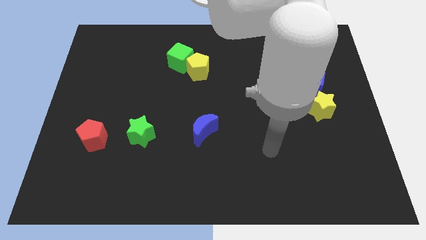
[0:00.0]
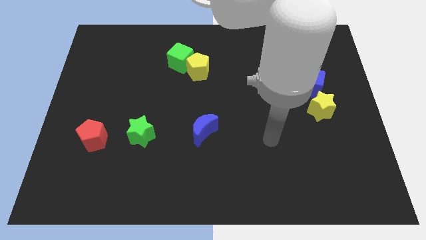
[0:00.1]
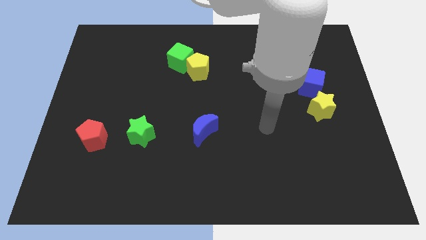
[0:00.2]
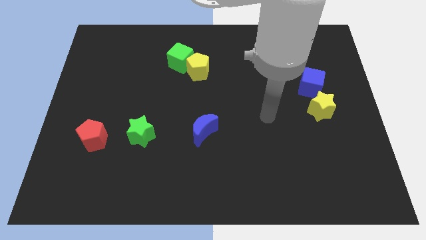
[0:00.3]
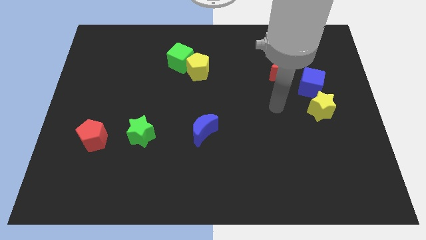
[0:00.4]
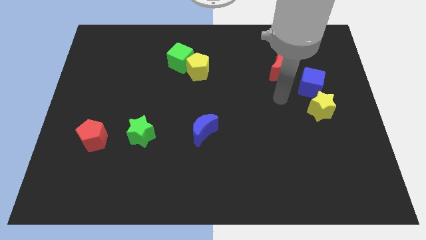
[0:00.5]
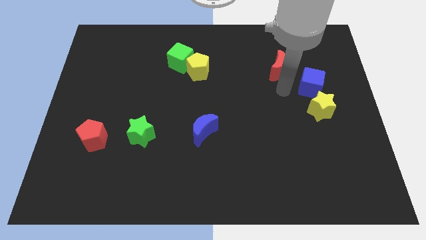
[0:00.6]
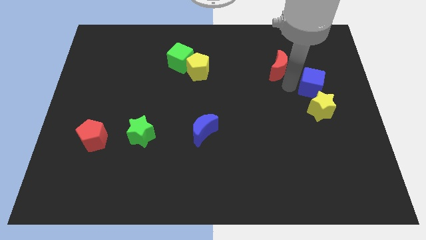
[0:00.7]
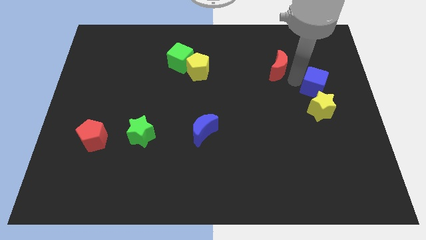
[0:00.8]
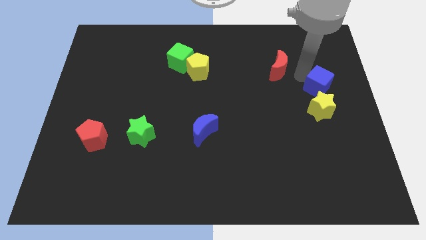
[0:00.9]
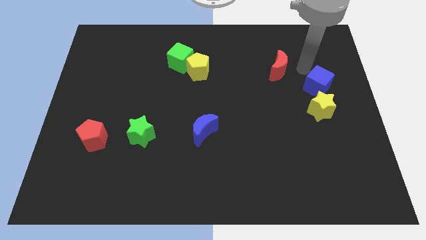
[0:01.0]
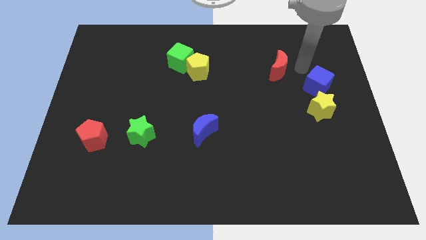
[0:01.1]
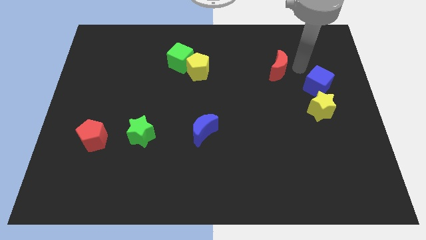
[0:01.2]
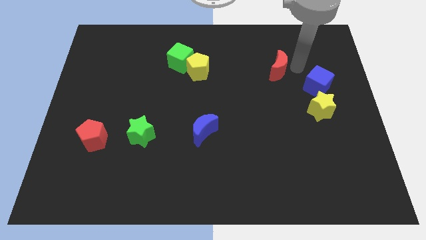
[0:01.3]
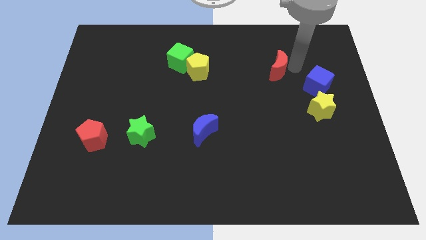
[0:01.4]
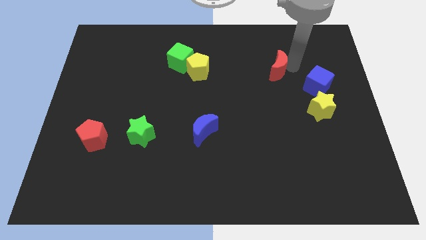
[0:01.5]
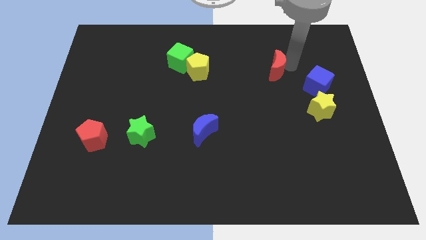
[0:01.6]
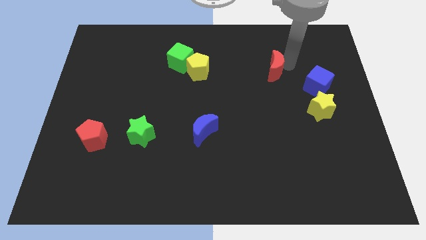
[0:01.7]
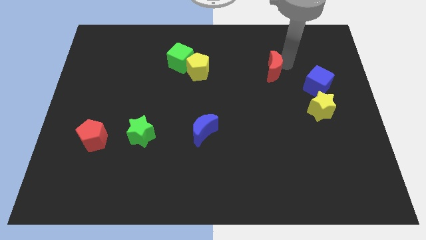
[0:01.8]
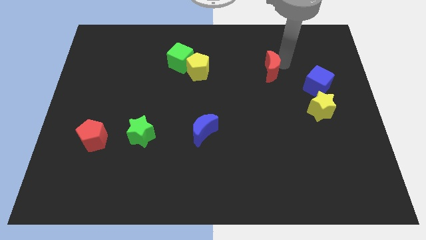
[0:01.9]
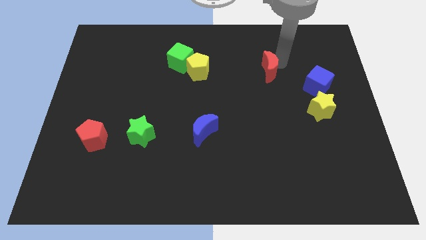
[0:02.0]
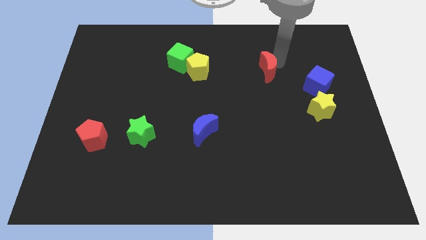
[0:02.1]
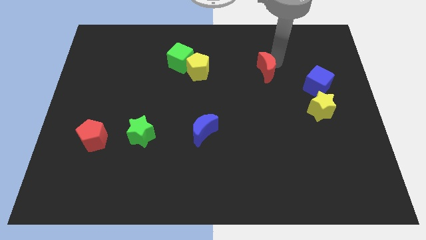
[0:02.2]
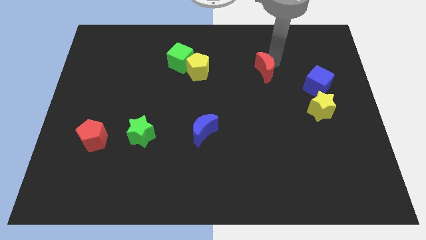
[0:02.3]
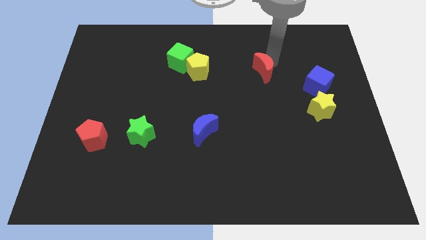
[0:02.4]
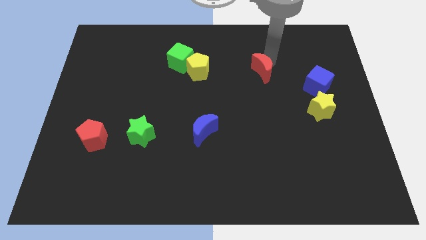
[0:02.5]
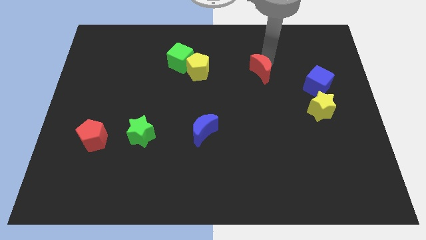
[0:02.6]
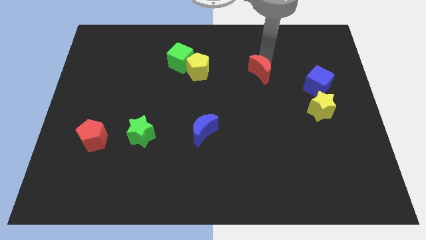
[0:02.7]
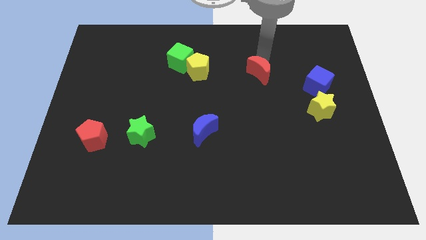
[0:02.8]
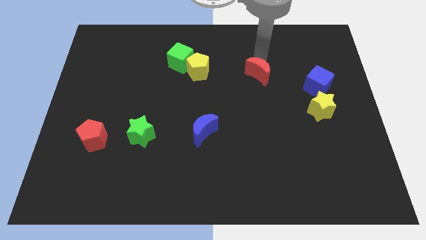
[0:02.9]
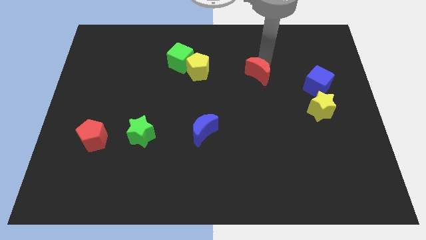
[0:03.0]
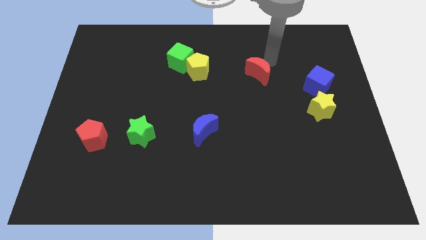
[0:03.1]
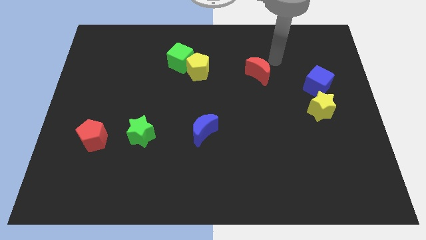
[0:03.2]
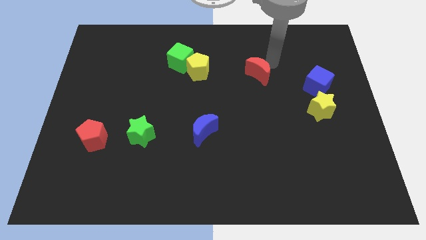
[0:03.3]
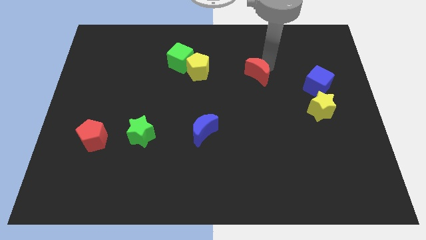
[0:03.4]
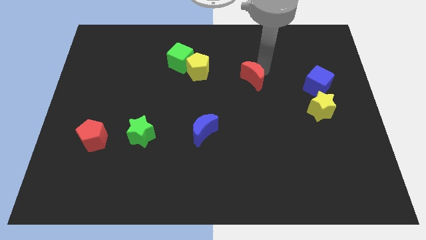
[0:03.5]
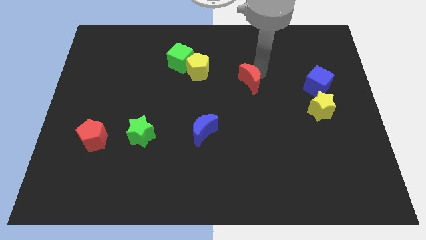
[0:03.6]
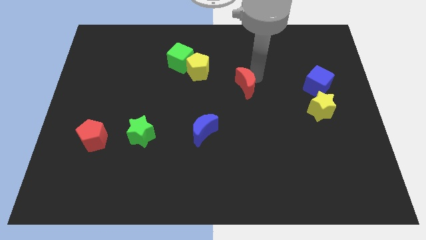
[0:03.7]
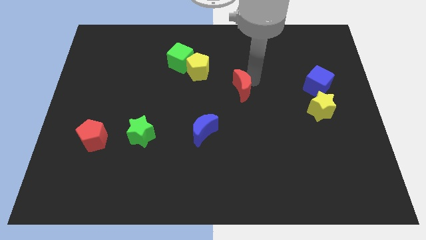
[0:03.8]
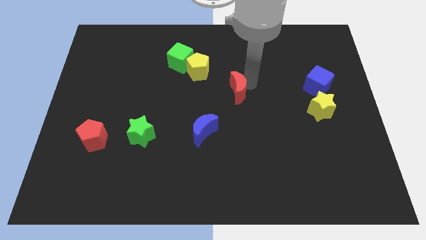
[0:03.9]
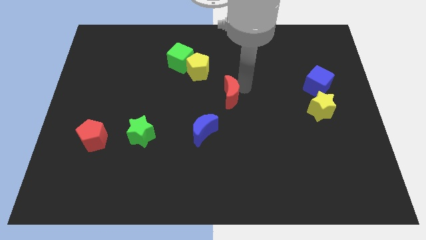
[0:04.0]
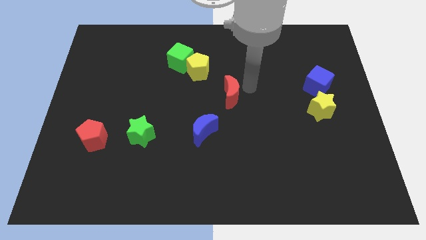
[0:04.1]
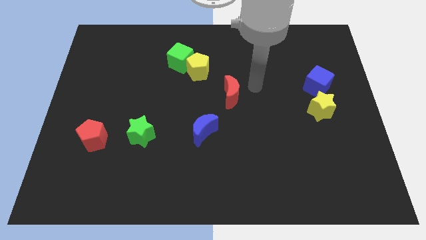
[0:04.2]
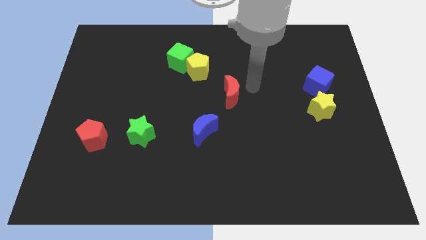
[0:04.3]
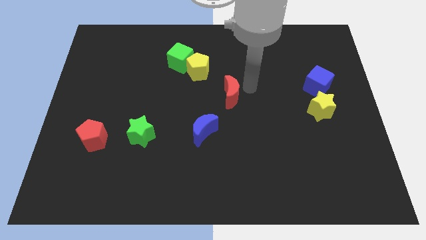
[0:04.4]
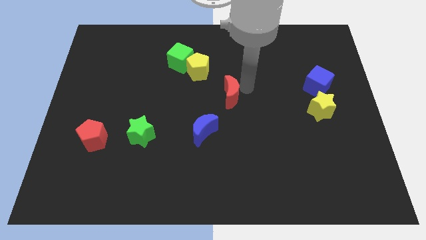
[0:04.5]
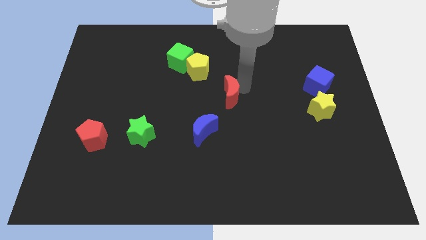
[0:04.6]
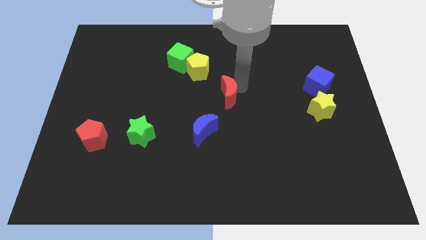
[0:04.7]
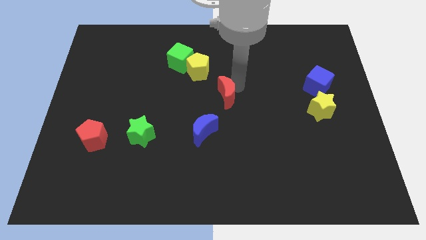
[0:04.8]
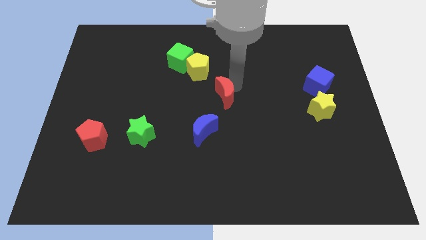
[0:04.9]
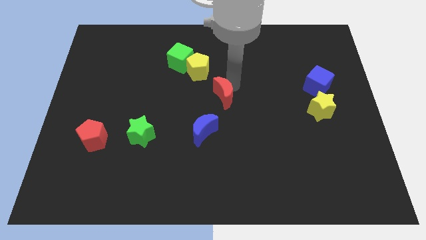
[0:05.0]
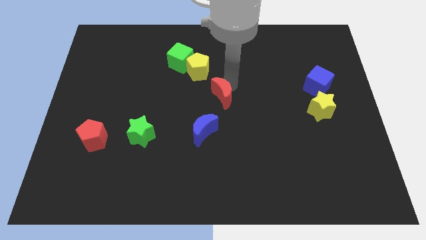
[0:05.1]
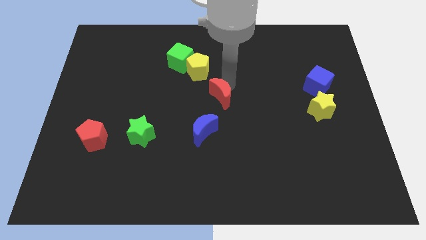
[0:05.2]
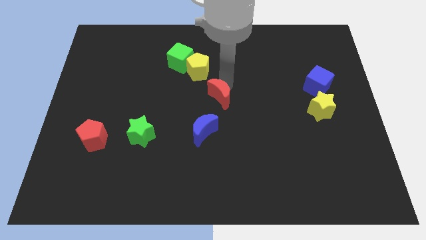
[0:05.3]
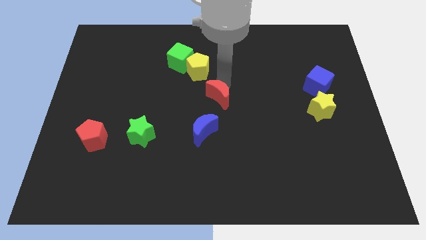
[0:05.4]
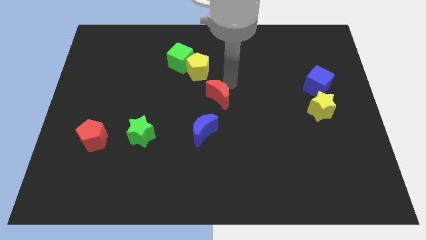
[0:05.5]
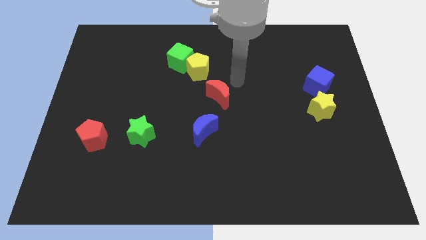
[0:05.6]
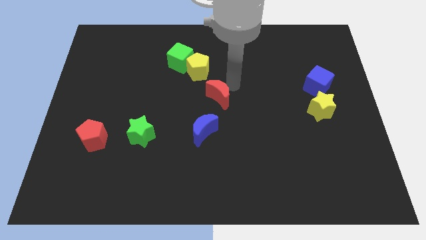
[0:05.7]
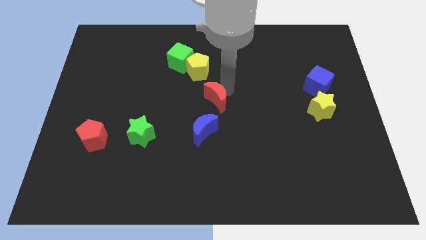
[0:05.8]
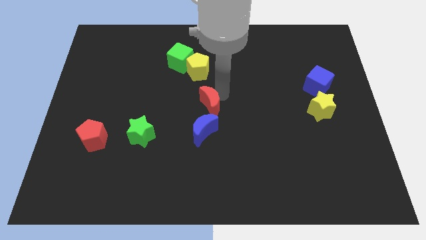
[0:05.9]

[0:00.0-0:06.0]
move the red moon down and left

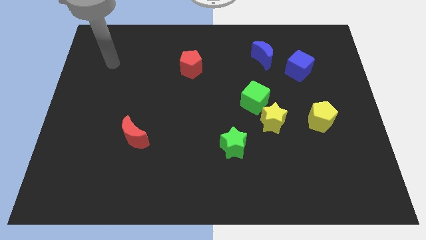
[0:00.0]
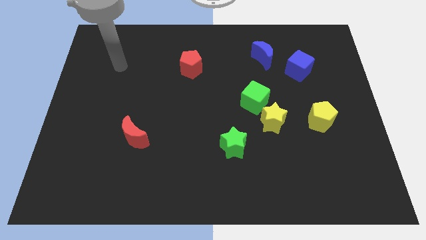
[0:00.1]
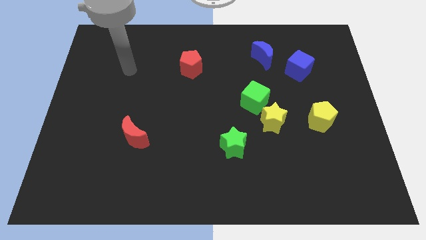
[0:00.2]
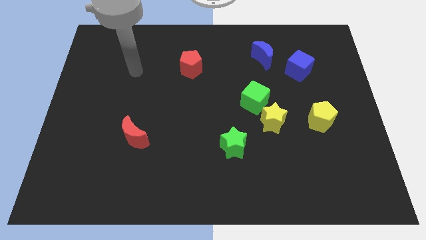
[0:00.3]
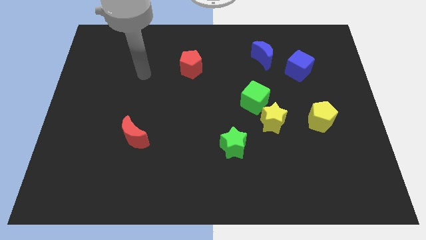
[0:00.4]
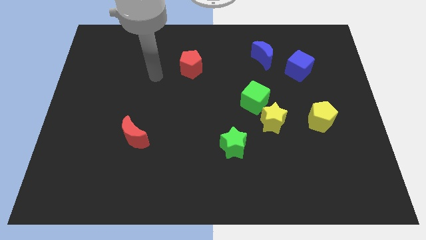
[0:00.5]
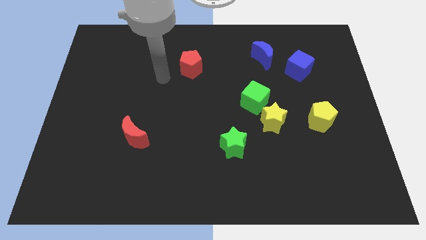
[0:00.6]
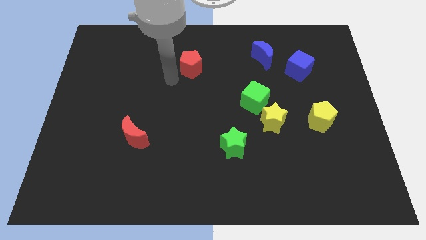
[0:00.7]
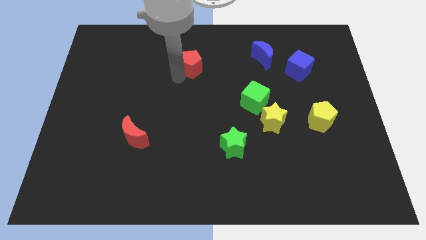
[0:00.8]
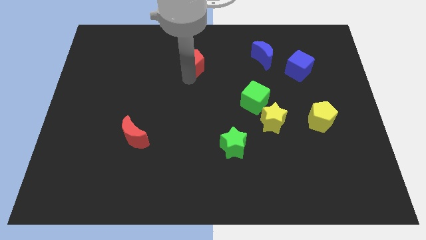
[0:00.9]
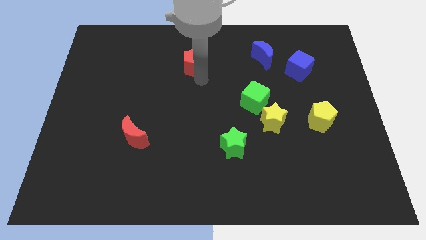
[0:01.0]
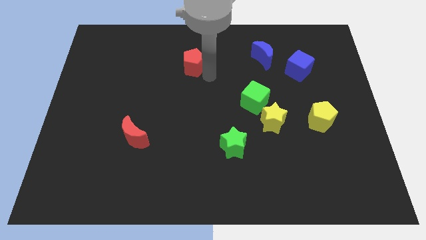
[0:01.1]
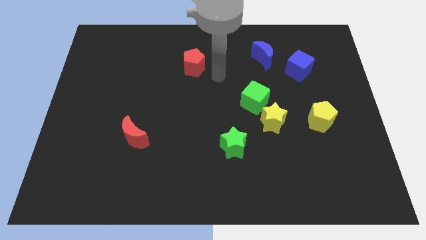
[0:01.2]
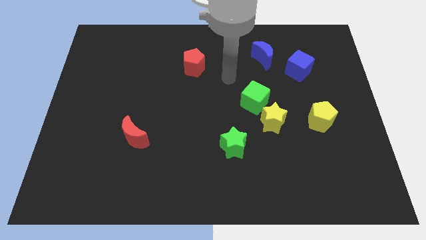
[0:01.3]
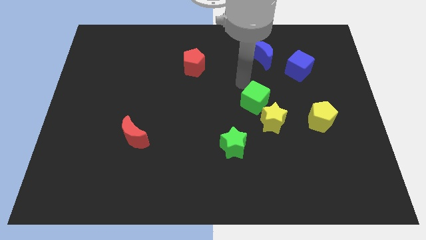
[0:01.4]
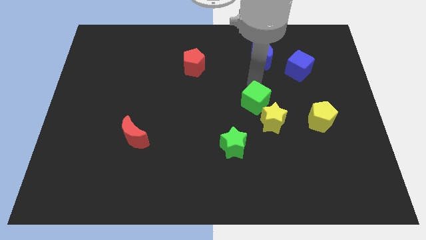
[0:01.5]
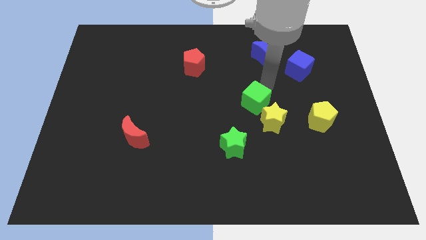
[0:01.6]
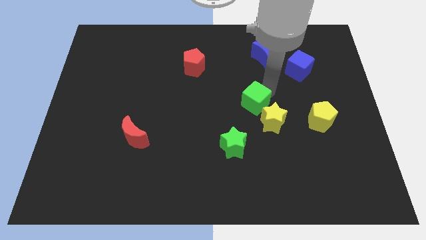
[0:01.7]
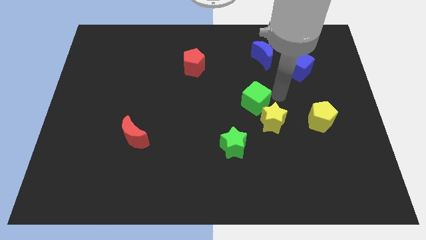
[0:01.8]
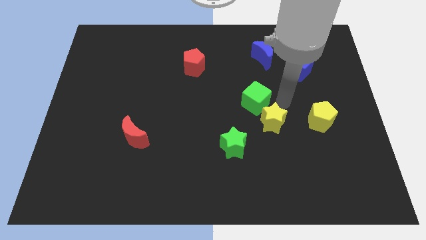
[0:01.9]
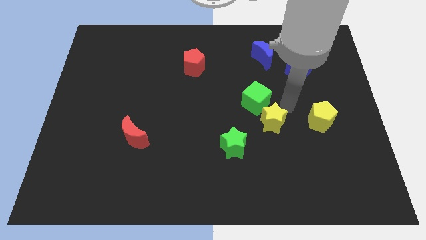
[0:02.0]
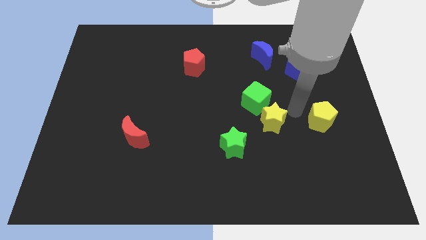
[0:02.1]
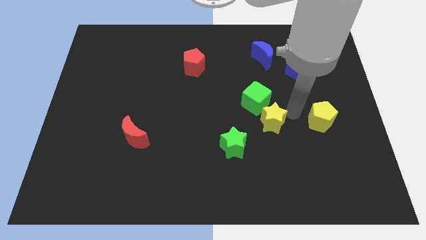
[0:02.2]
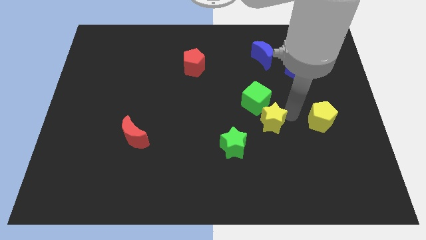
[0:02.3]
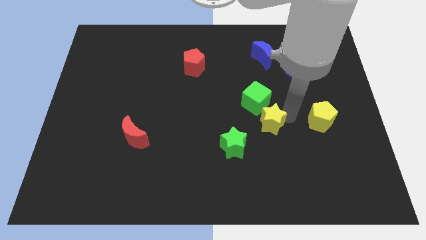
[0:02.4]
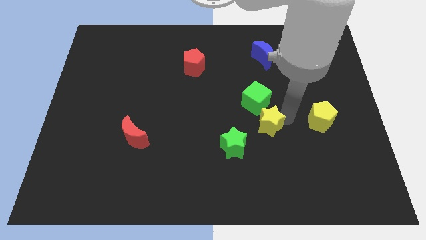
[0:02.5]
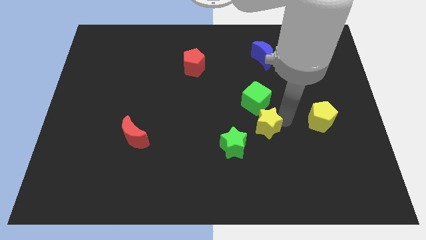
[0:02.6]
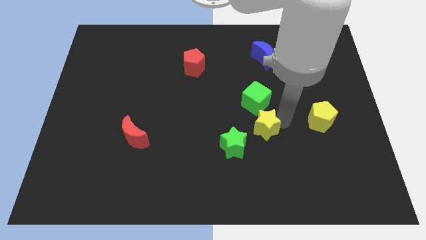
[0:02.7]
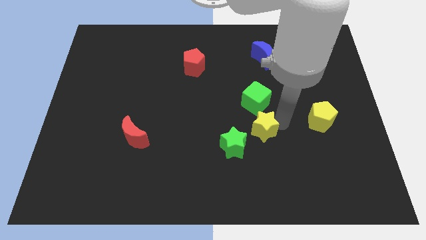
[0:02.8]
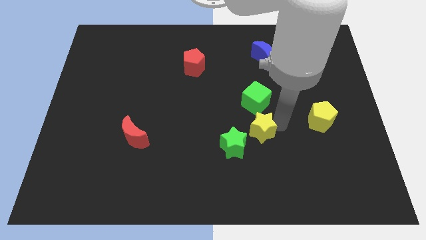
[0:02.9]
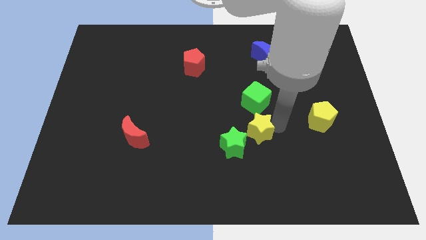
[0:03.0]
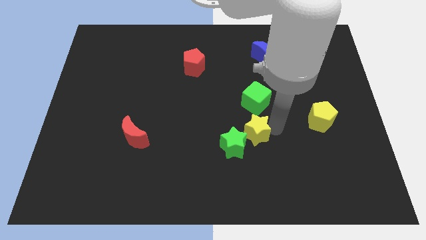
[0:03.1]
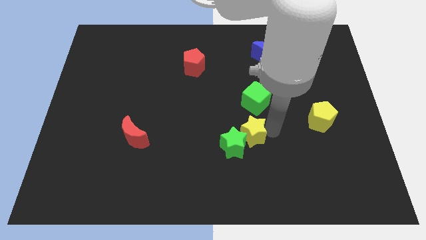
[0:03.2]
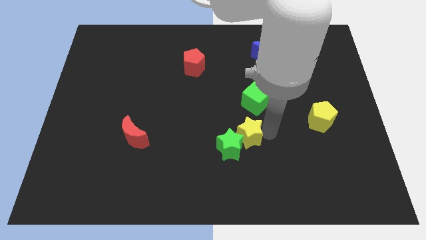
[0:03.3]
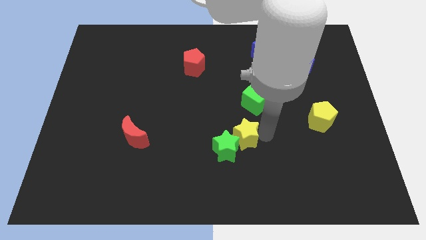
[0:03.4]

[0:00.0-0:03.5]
slide the yellow star a little bit downwards and left
